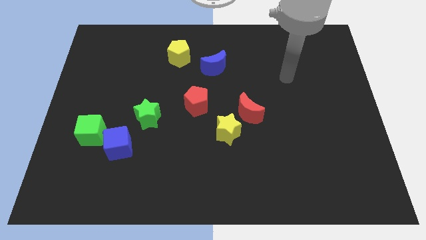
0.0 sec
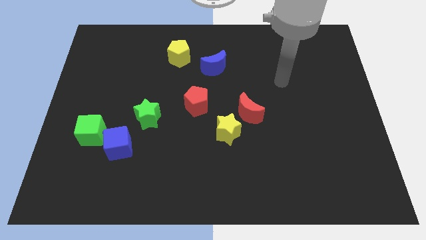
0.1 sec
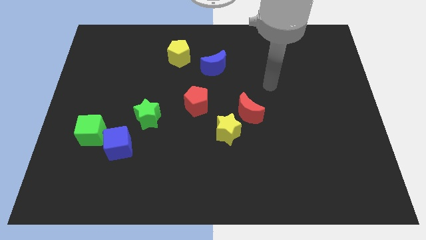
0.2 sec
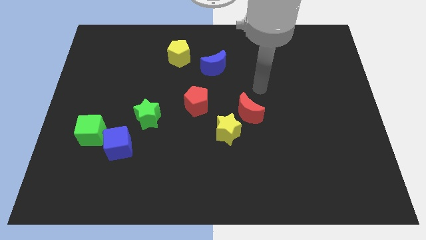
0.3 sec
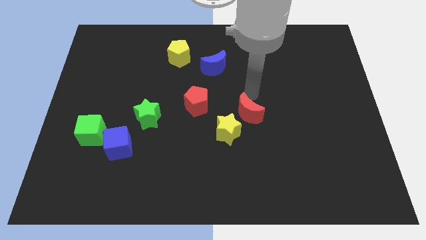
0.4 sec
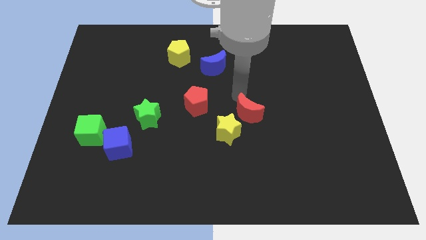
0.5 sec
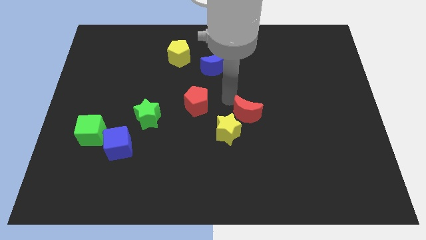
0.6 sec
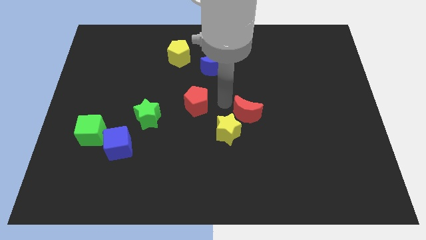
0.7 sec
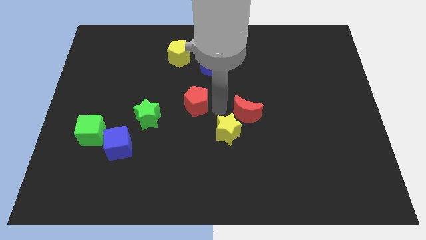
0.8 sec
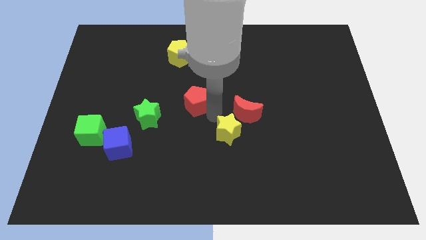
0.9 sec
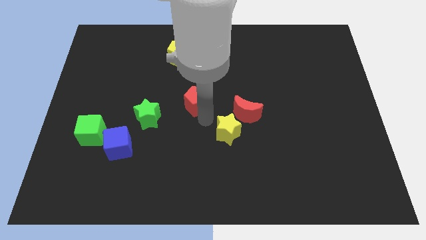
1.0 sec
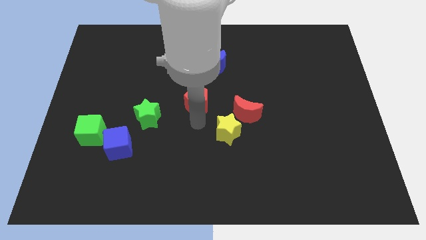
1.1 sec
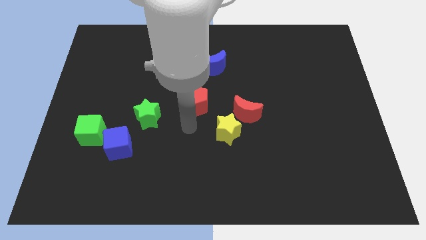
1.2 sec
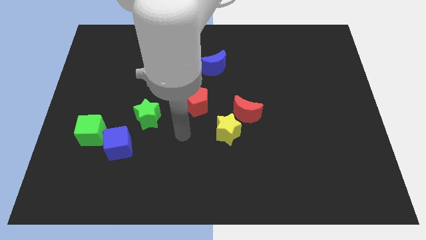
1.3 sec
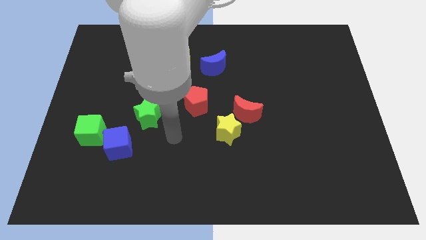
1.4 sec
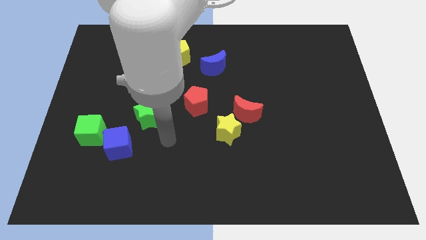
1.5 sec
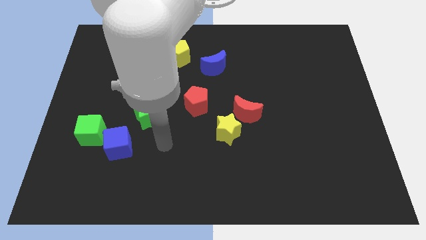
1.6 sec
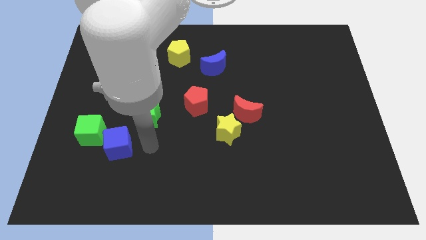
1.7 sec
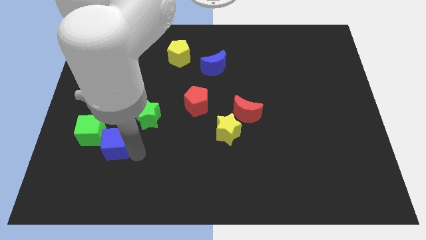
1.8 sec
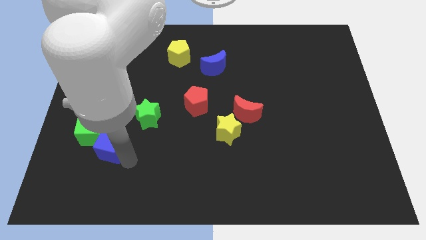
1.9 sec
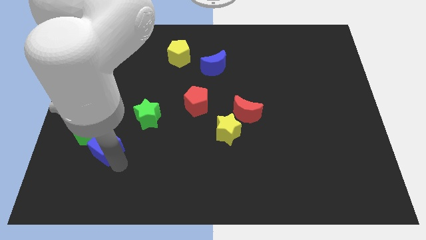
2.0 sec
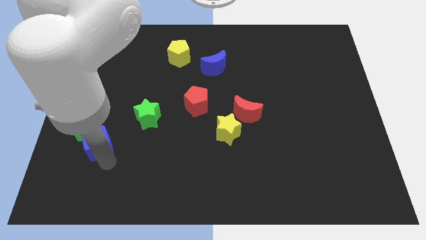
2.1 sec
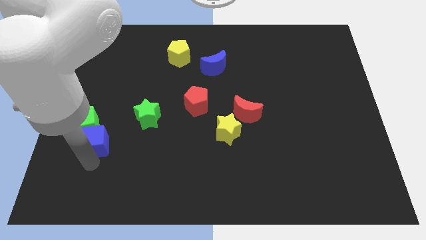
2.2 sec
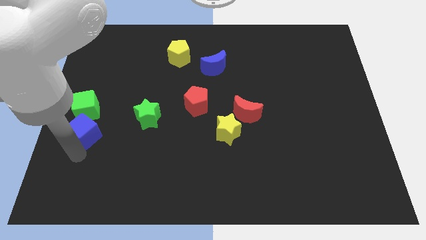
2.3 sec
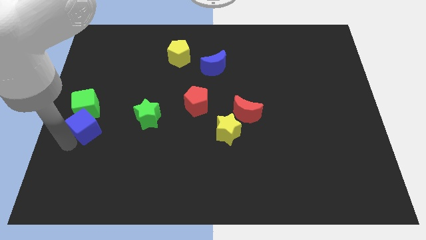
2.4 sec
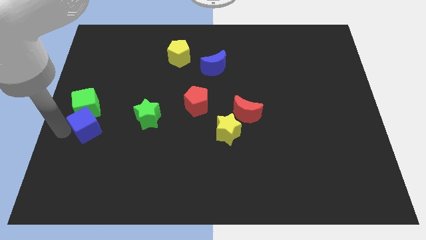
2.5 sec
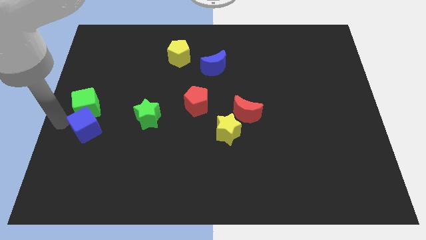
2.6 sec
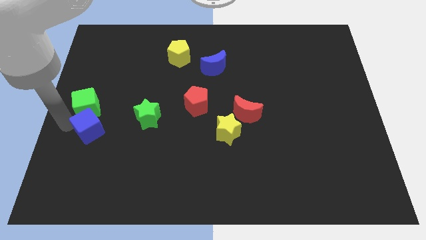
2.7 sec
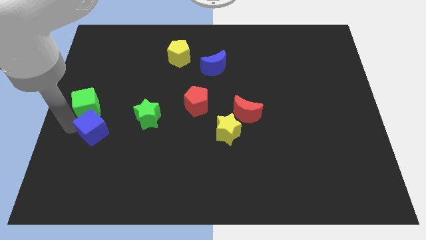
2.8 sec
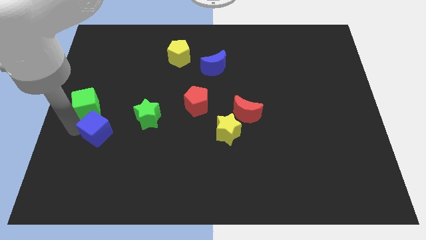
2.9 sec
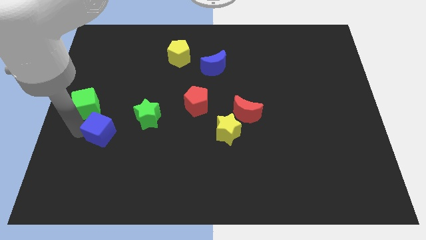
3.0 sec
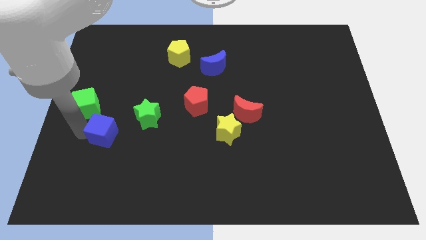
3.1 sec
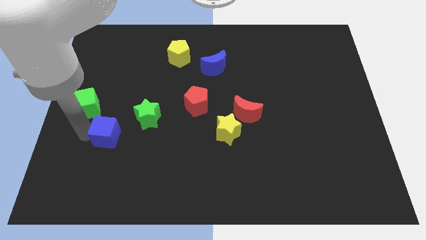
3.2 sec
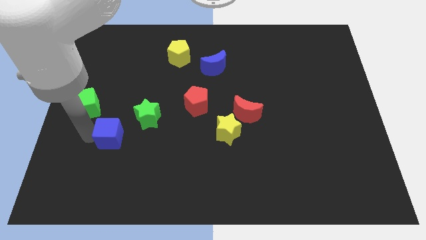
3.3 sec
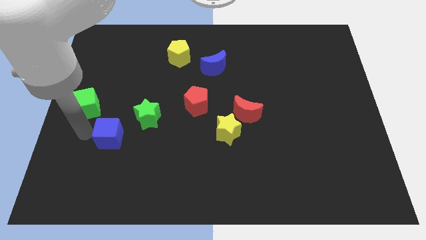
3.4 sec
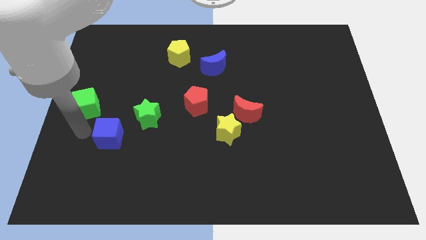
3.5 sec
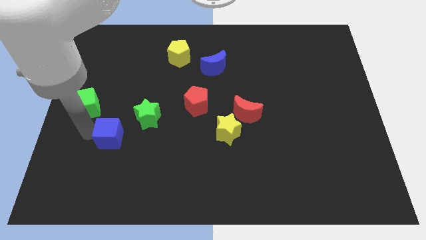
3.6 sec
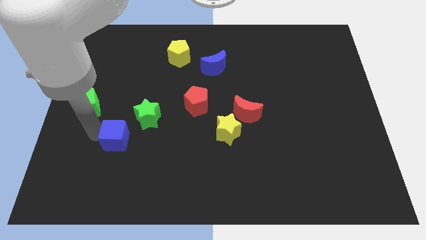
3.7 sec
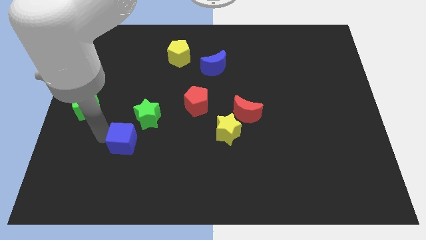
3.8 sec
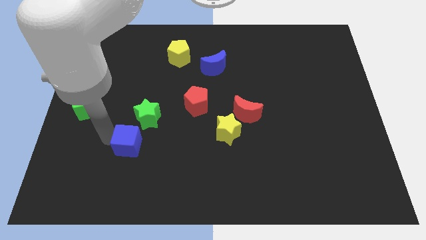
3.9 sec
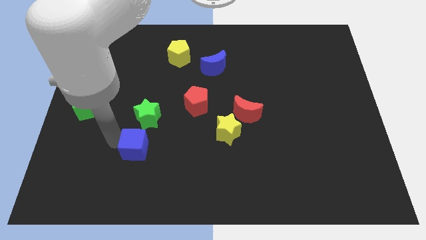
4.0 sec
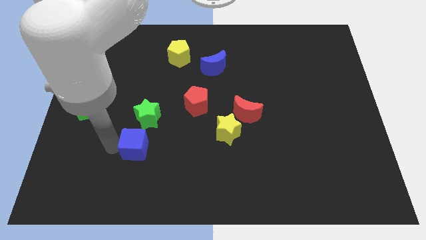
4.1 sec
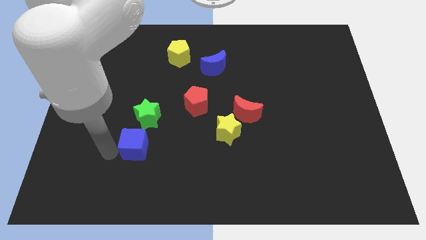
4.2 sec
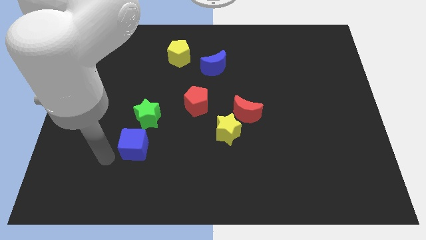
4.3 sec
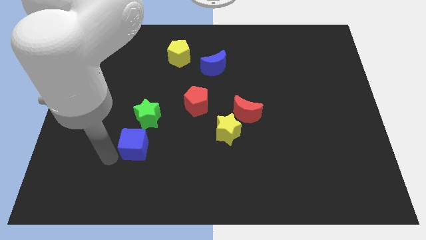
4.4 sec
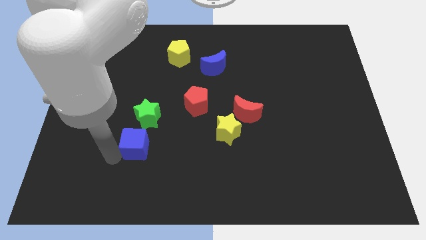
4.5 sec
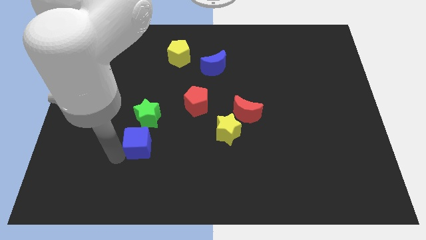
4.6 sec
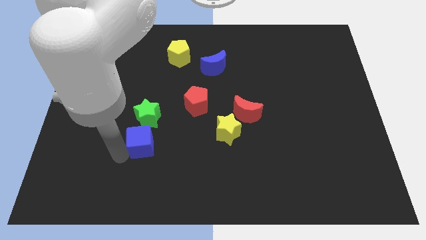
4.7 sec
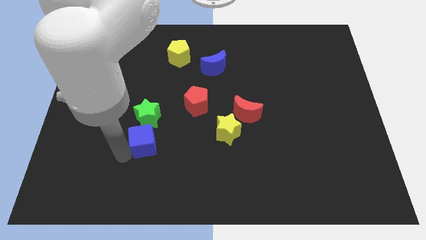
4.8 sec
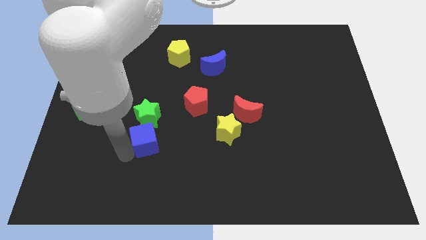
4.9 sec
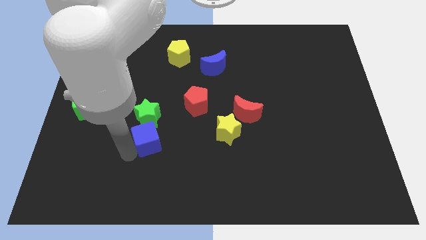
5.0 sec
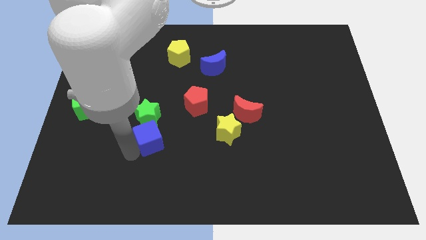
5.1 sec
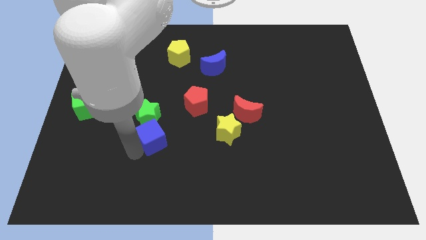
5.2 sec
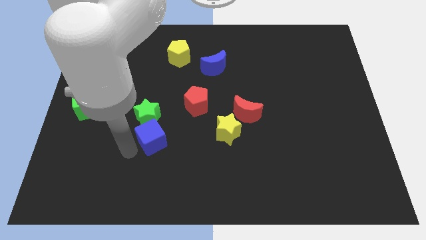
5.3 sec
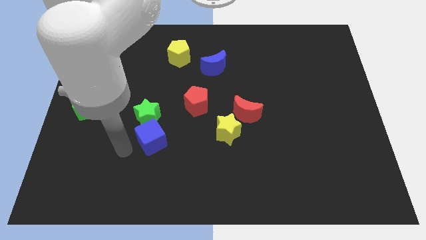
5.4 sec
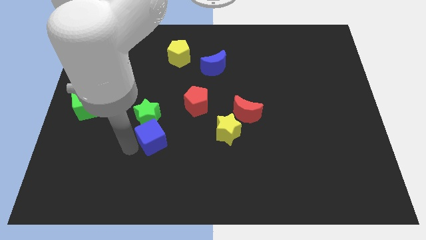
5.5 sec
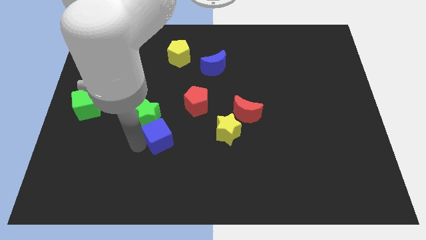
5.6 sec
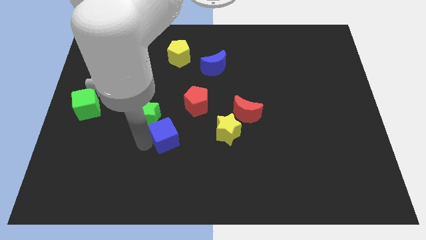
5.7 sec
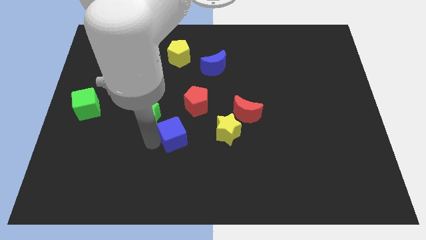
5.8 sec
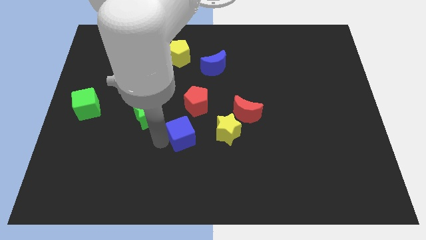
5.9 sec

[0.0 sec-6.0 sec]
slide the blue cube to the center of the board

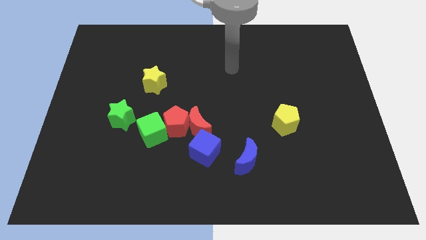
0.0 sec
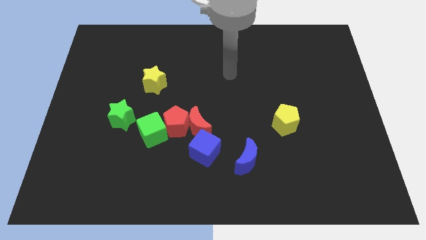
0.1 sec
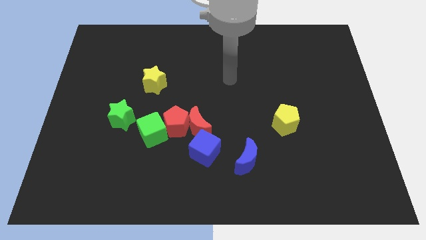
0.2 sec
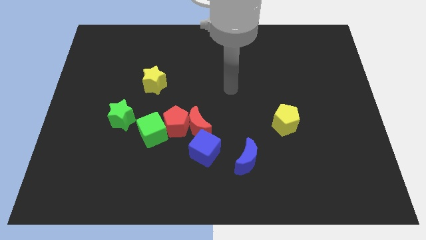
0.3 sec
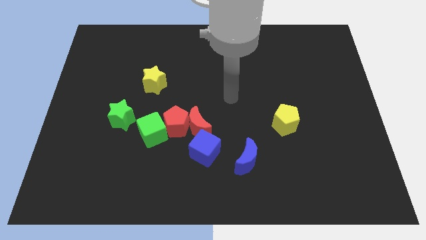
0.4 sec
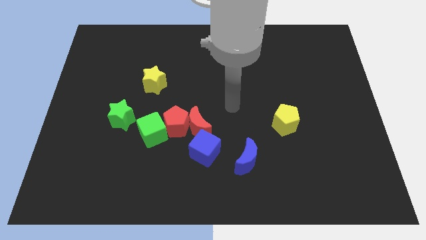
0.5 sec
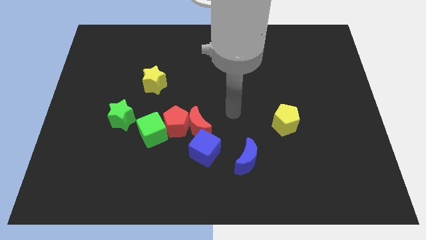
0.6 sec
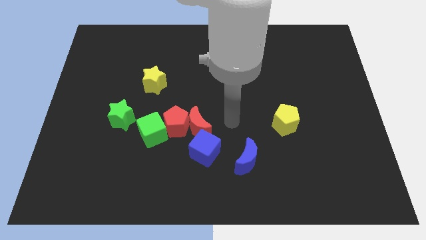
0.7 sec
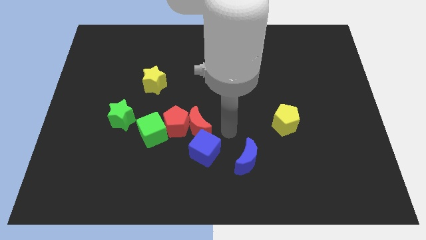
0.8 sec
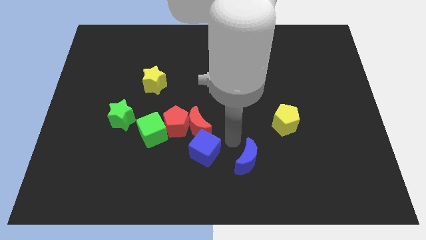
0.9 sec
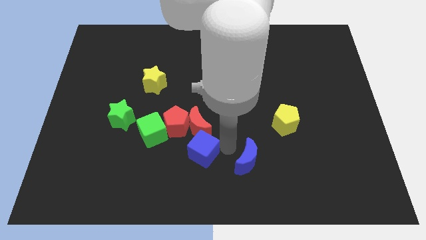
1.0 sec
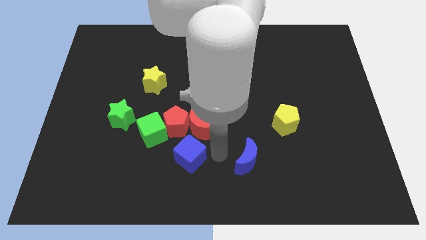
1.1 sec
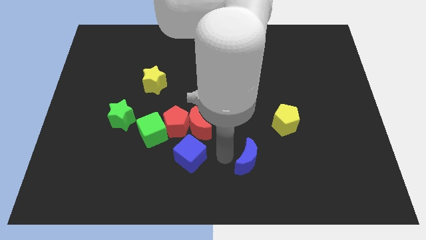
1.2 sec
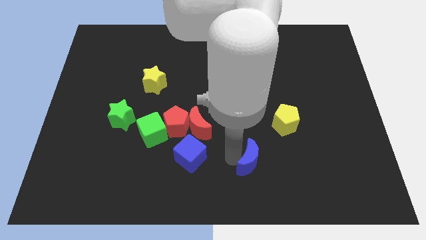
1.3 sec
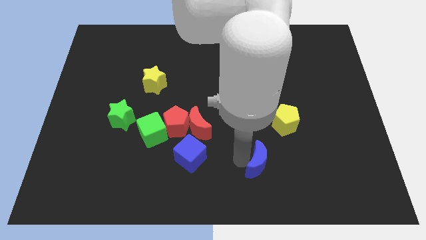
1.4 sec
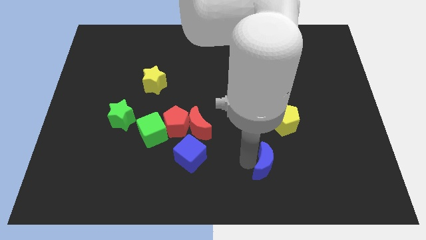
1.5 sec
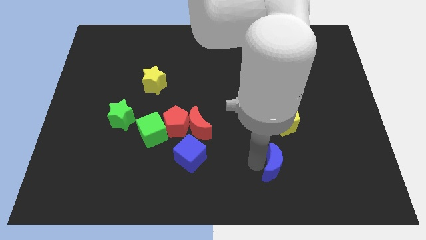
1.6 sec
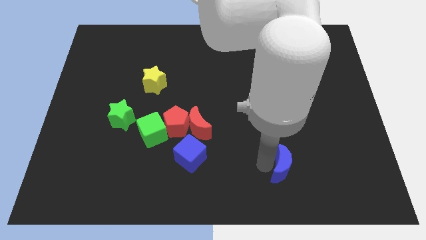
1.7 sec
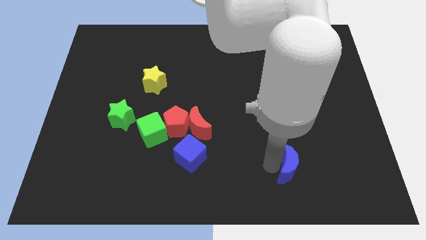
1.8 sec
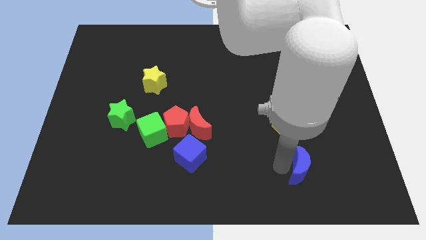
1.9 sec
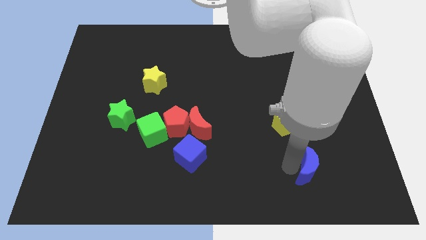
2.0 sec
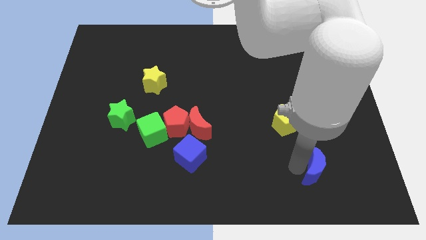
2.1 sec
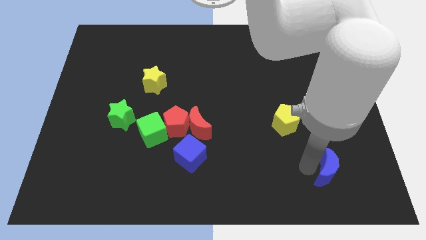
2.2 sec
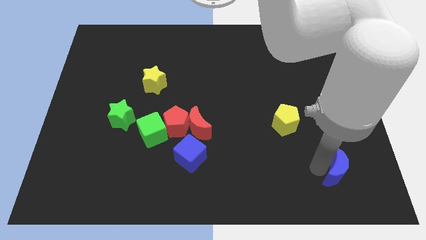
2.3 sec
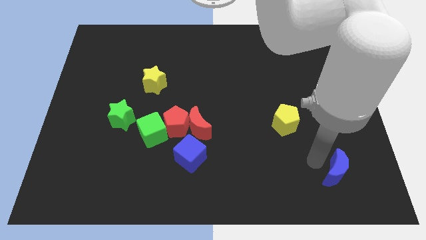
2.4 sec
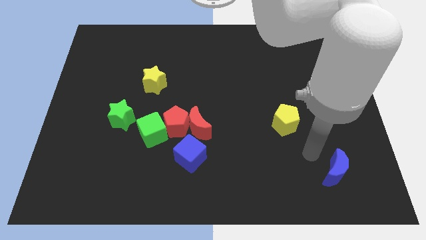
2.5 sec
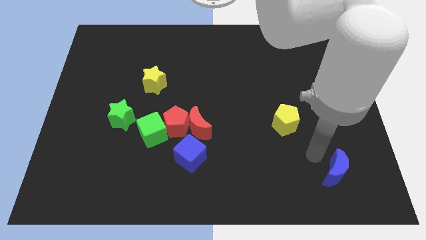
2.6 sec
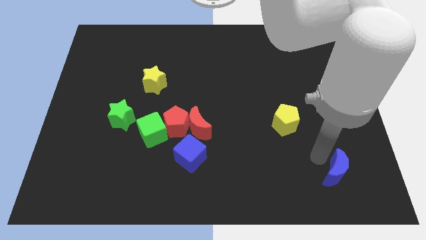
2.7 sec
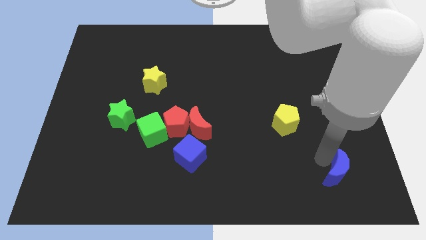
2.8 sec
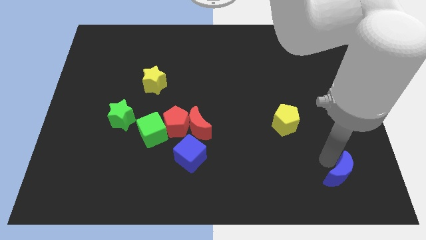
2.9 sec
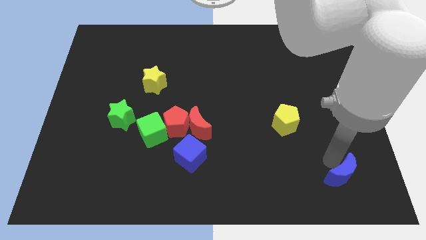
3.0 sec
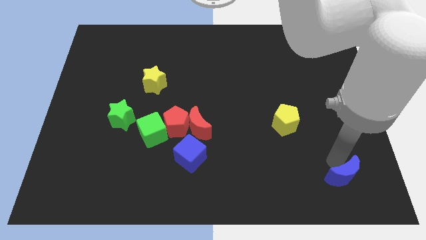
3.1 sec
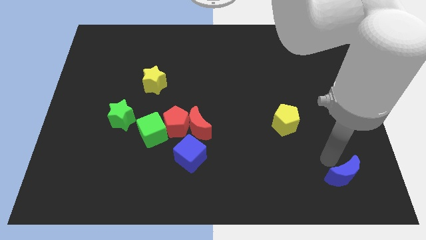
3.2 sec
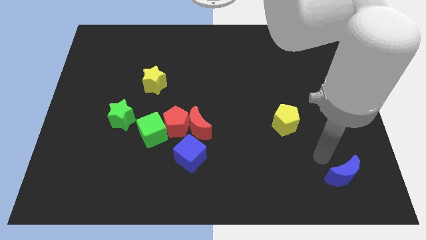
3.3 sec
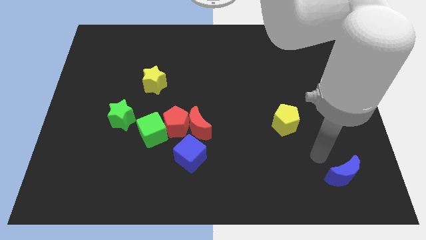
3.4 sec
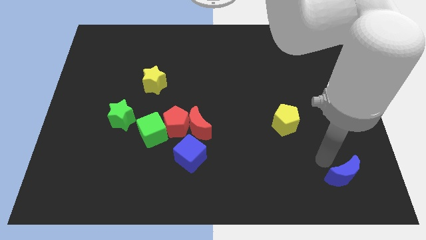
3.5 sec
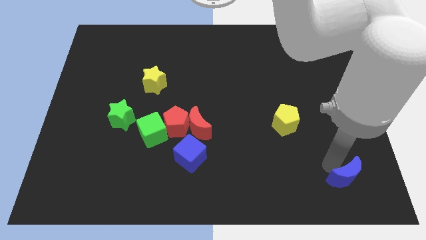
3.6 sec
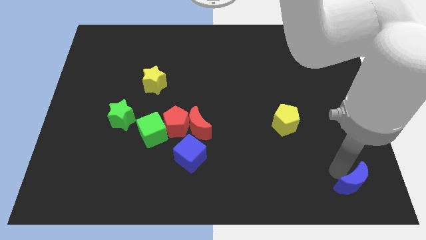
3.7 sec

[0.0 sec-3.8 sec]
push the blue moon to the bottom right
